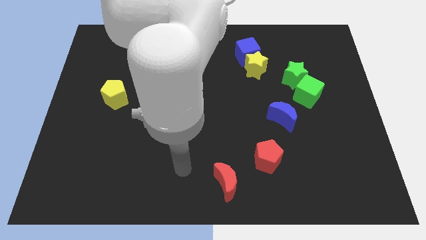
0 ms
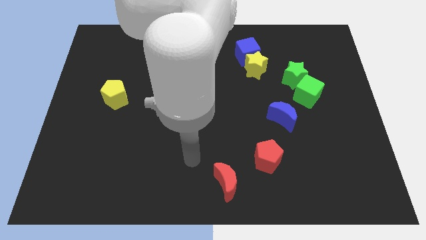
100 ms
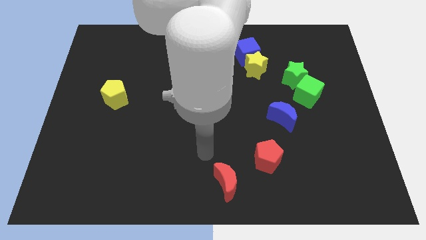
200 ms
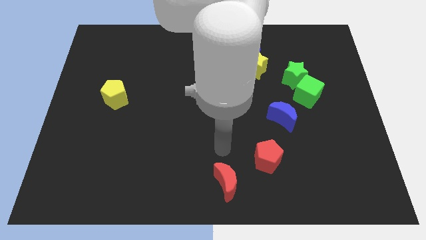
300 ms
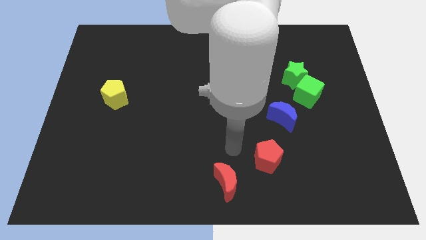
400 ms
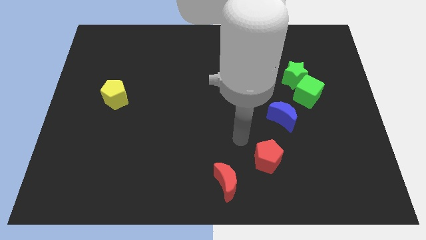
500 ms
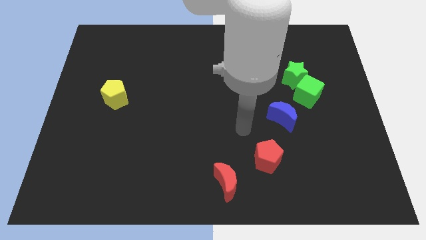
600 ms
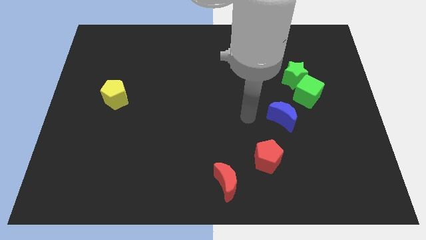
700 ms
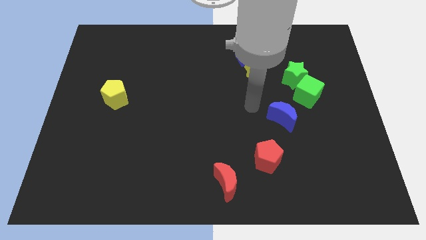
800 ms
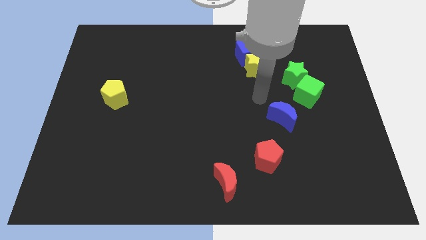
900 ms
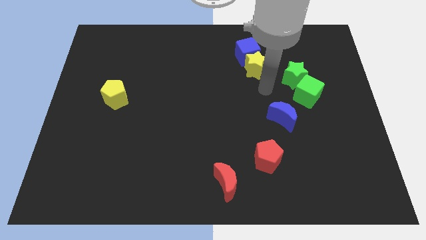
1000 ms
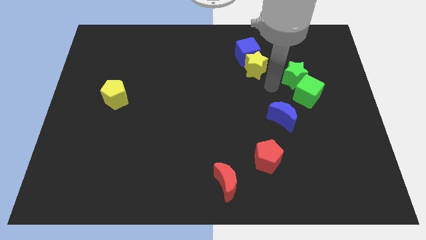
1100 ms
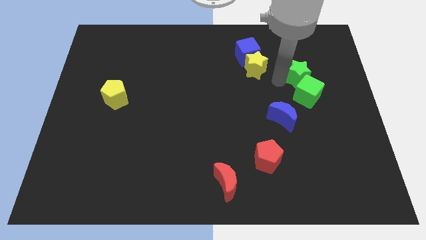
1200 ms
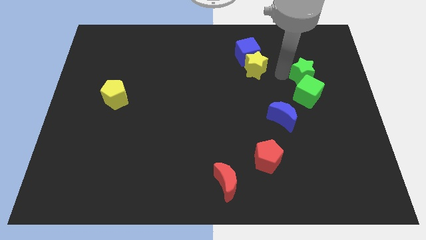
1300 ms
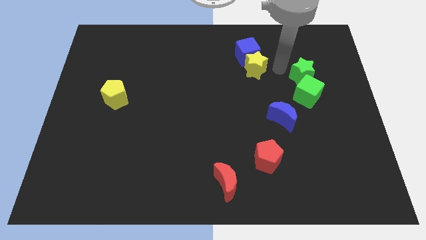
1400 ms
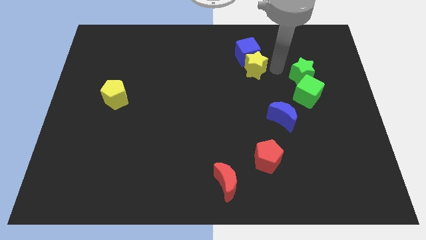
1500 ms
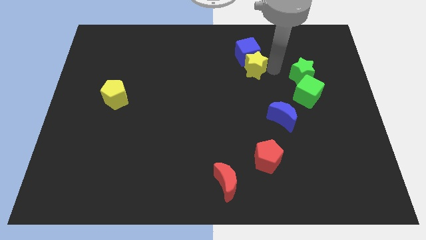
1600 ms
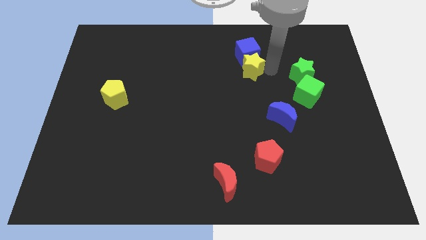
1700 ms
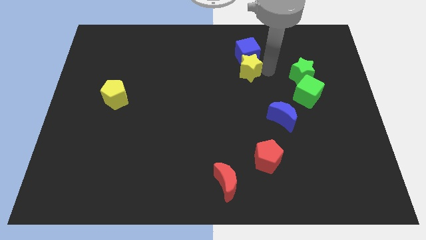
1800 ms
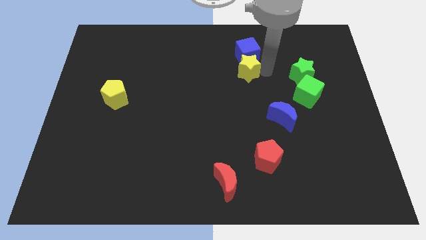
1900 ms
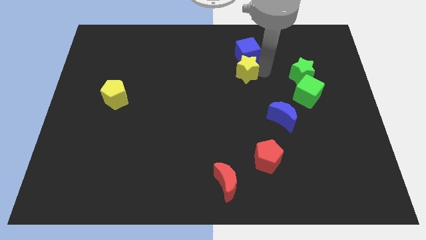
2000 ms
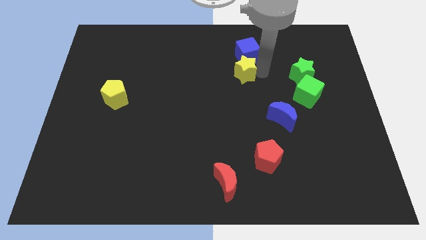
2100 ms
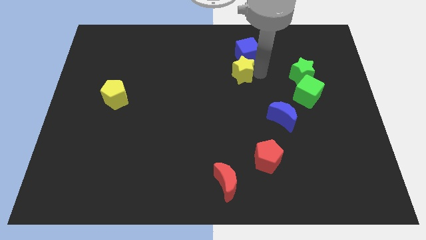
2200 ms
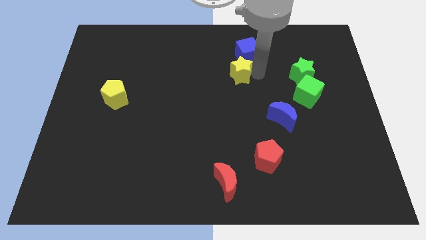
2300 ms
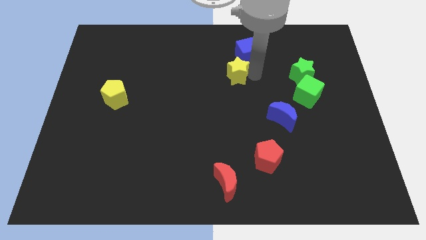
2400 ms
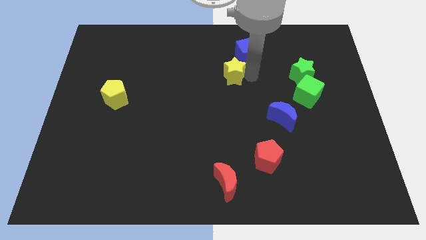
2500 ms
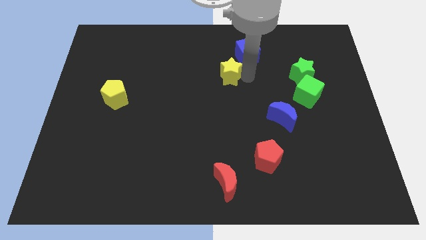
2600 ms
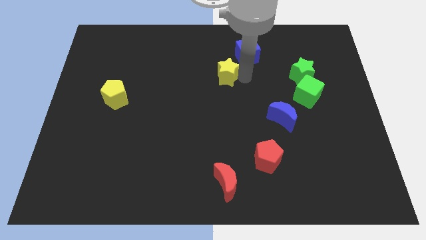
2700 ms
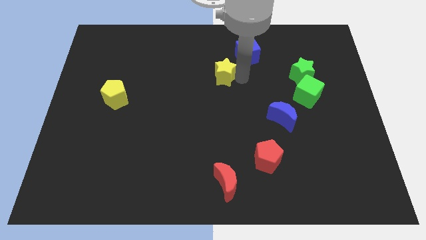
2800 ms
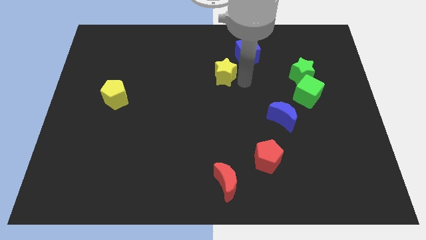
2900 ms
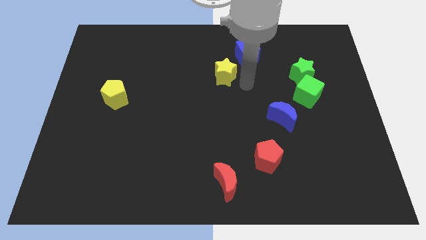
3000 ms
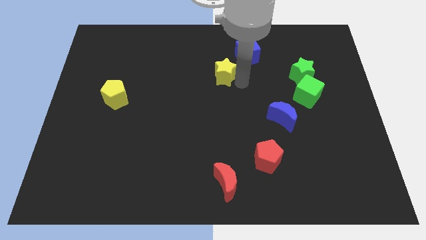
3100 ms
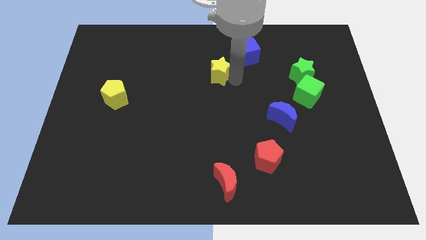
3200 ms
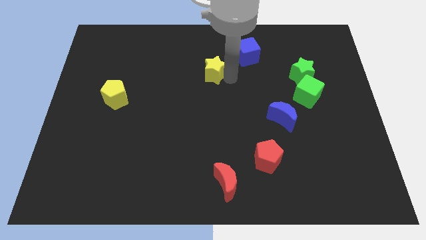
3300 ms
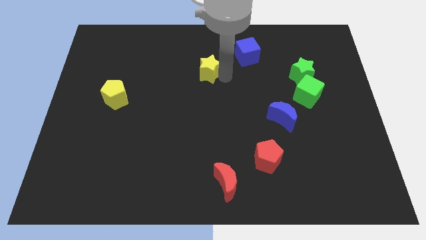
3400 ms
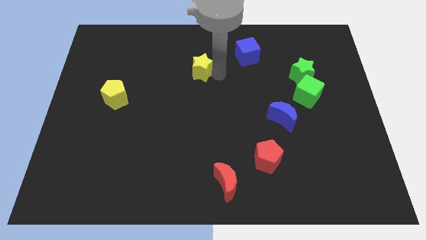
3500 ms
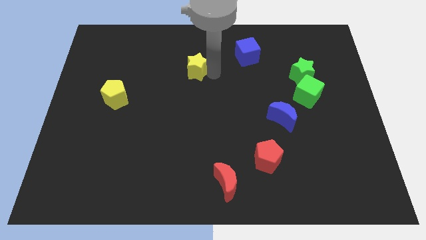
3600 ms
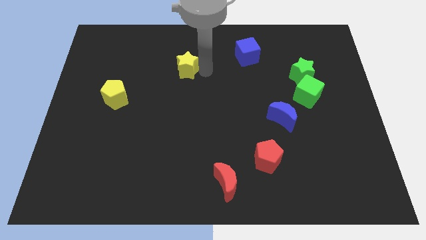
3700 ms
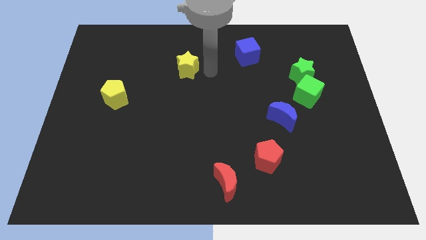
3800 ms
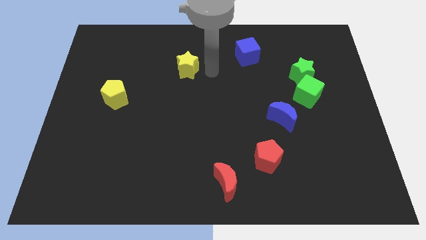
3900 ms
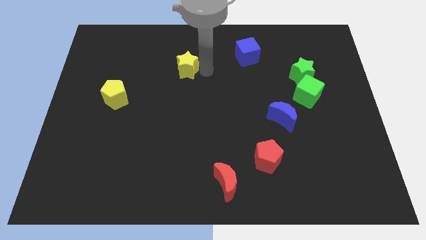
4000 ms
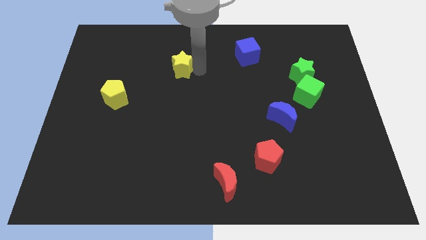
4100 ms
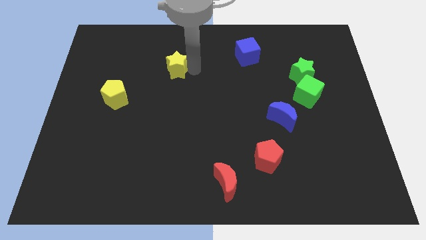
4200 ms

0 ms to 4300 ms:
move the yellow star left

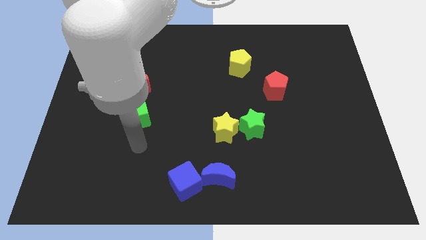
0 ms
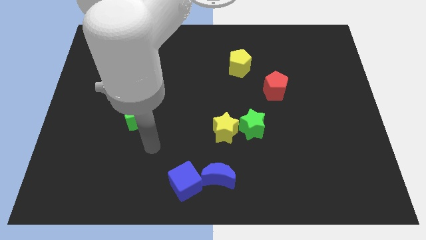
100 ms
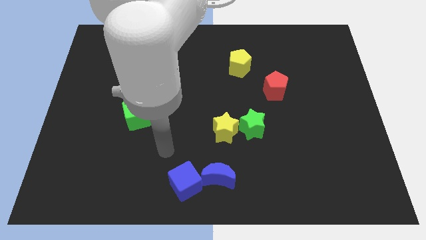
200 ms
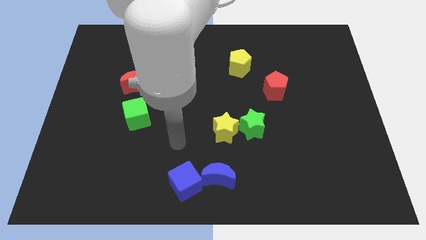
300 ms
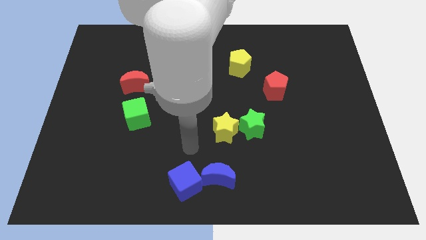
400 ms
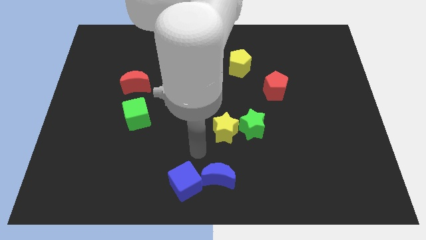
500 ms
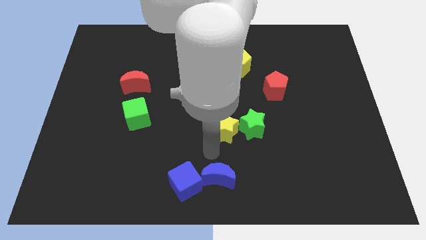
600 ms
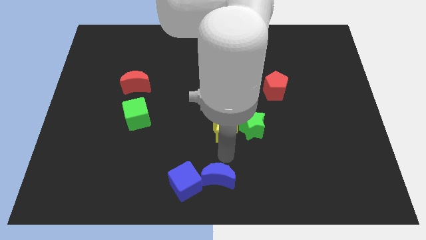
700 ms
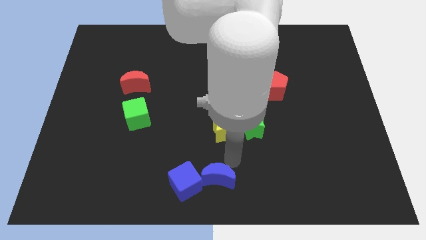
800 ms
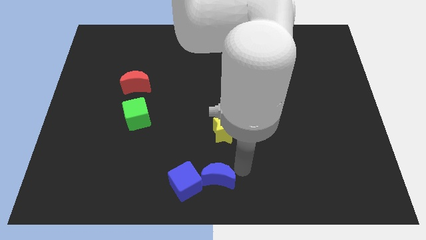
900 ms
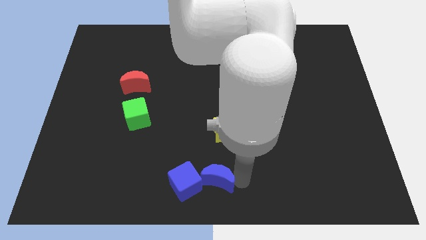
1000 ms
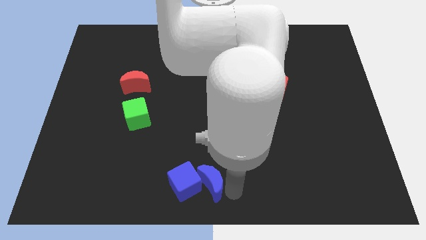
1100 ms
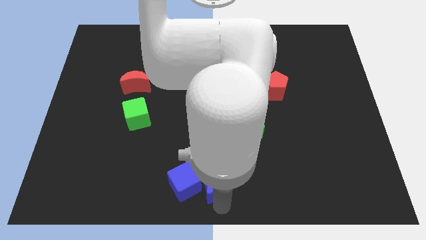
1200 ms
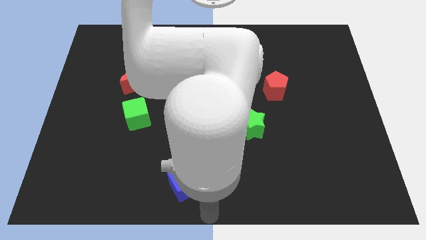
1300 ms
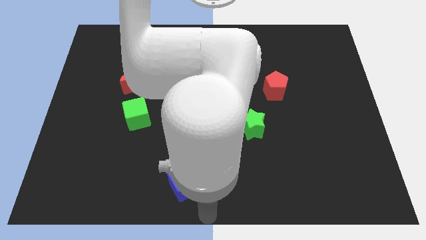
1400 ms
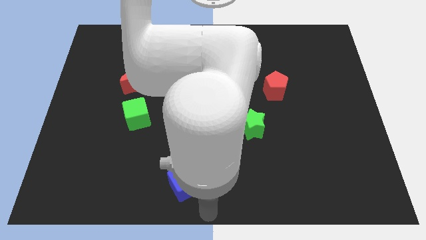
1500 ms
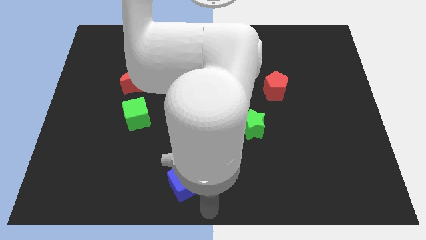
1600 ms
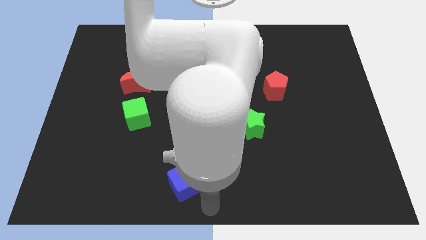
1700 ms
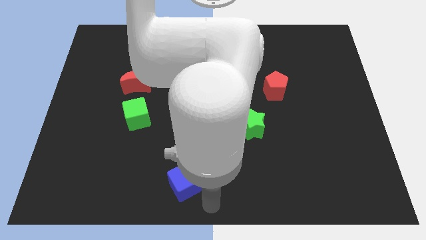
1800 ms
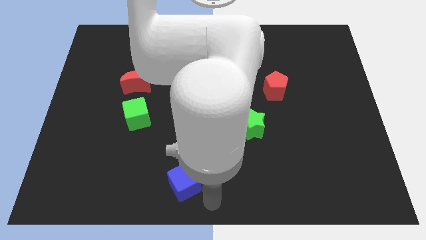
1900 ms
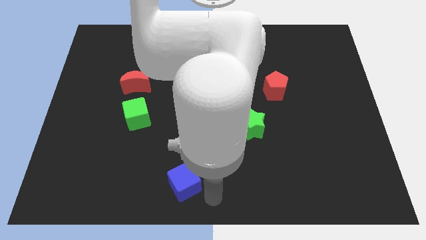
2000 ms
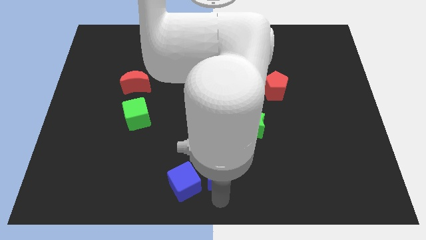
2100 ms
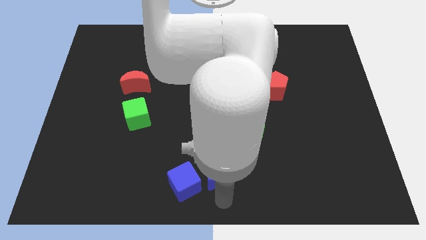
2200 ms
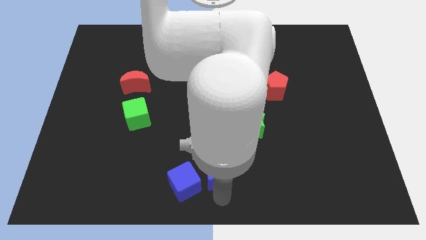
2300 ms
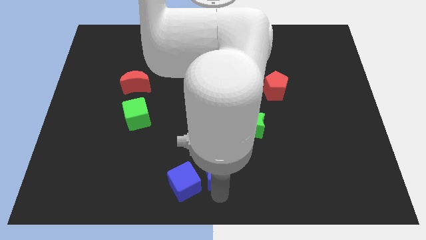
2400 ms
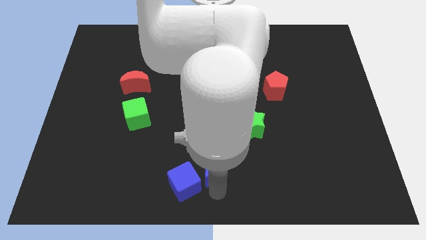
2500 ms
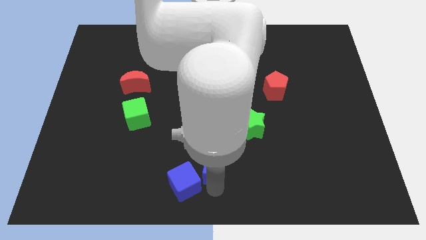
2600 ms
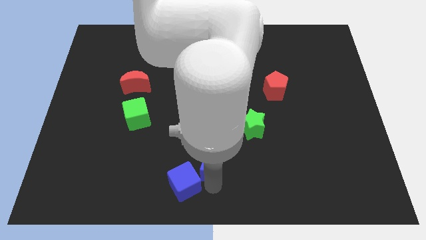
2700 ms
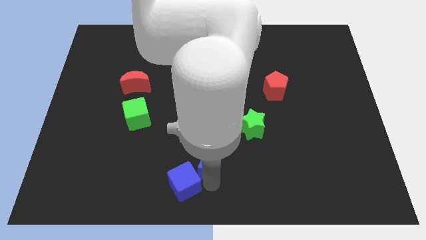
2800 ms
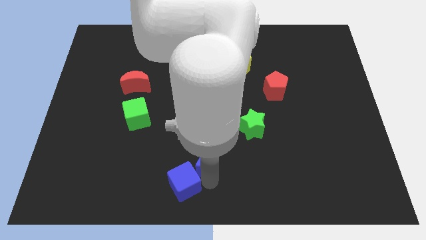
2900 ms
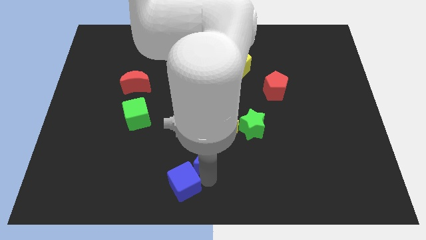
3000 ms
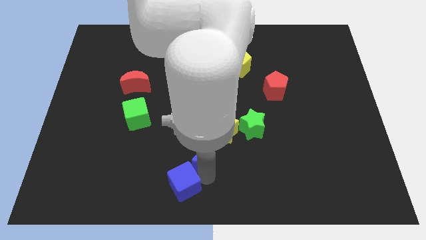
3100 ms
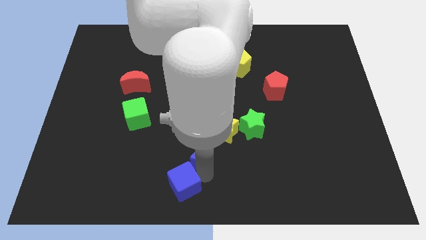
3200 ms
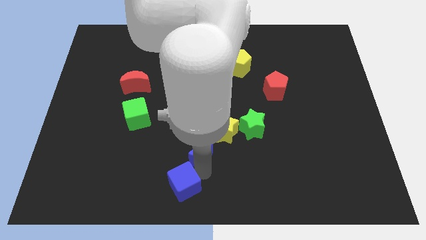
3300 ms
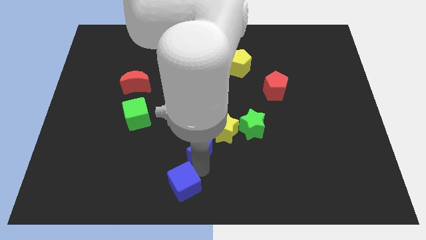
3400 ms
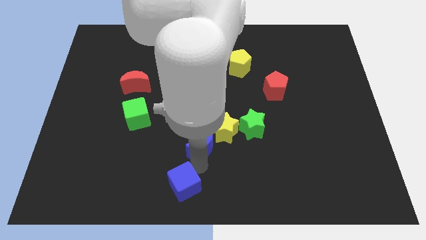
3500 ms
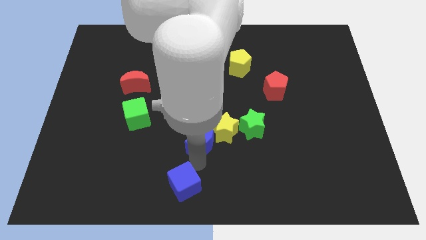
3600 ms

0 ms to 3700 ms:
move the blue moon up somewhat
